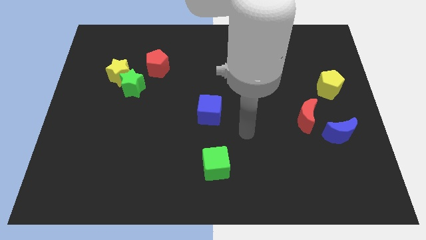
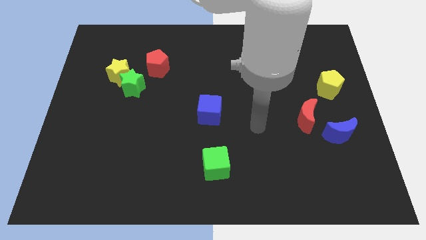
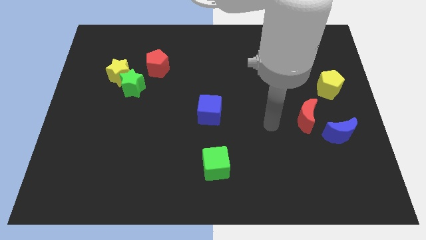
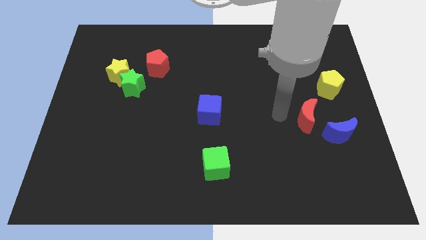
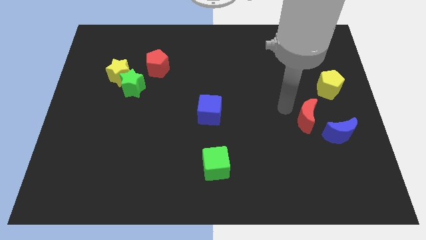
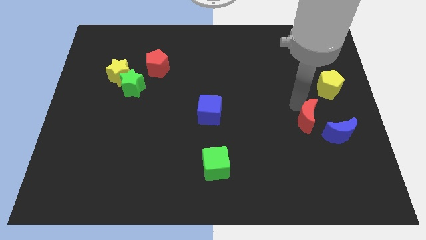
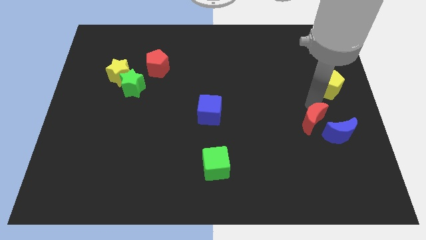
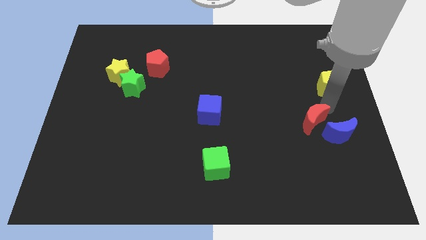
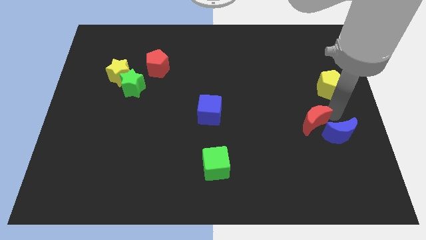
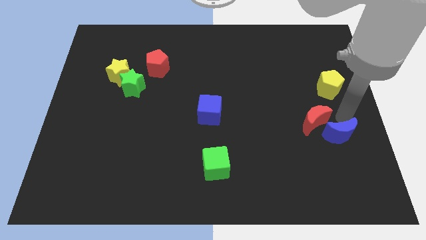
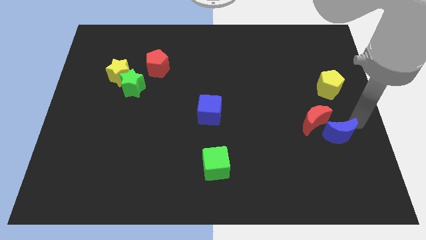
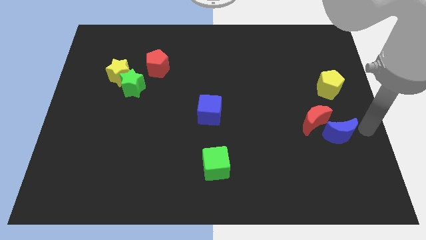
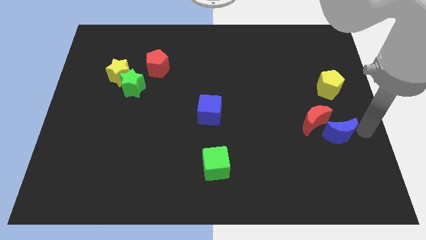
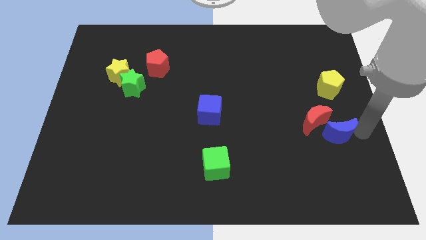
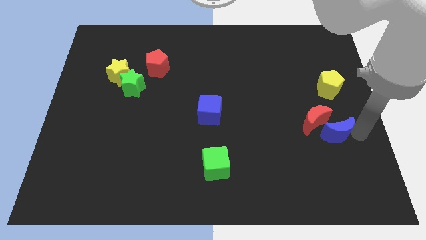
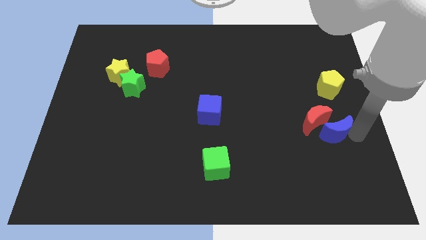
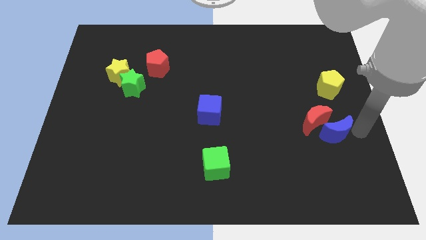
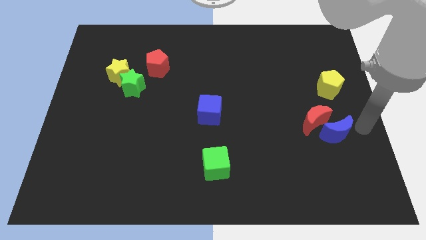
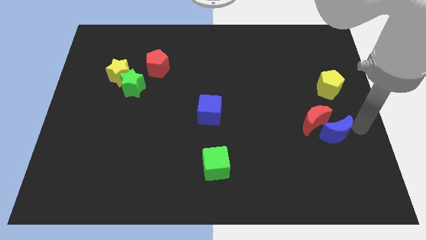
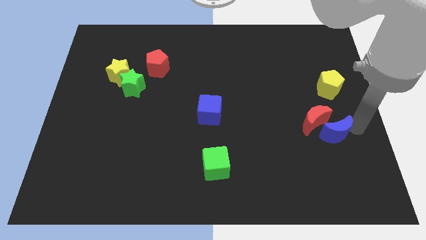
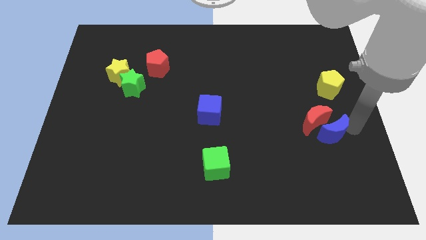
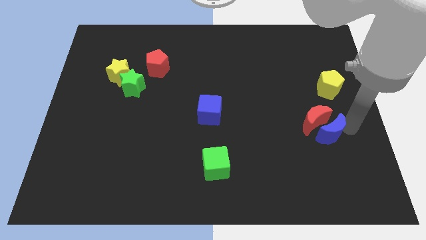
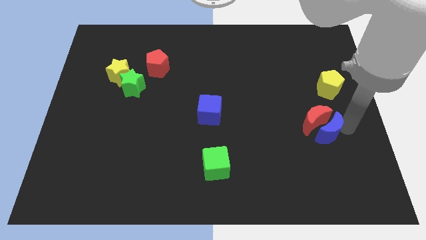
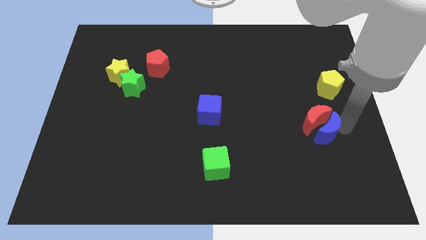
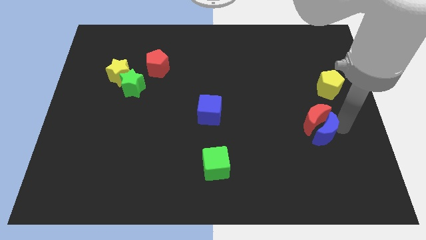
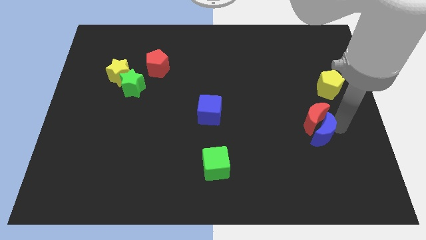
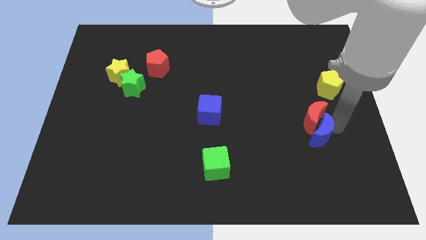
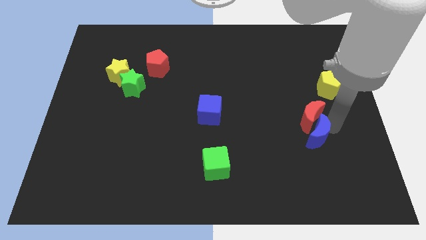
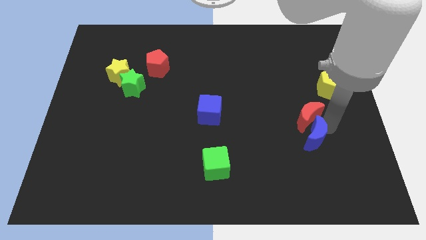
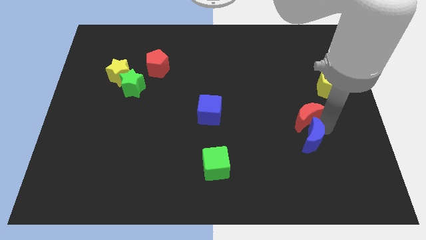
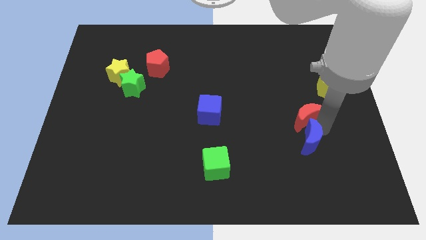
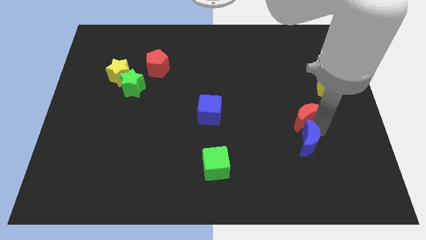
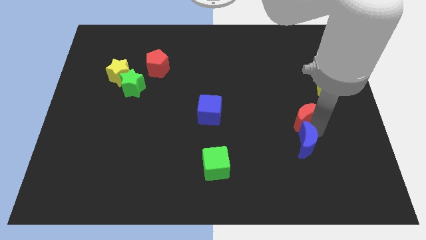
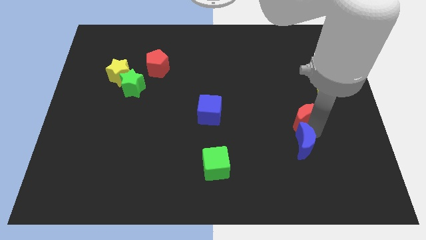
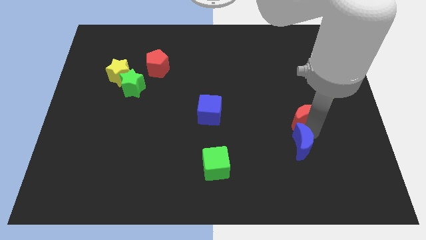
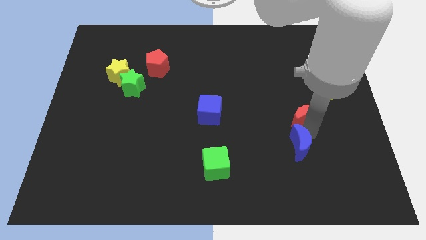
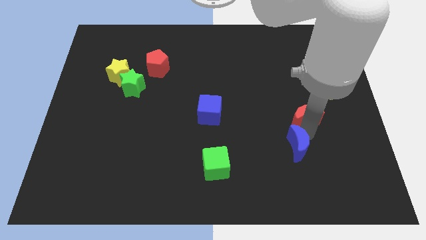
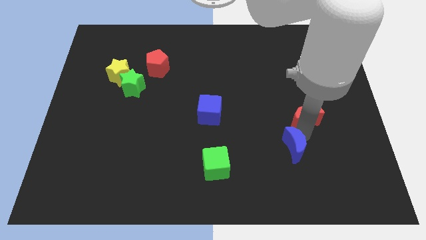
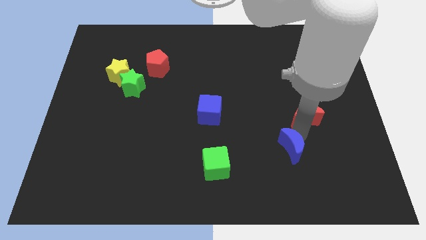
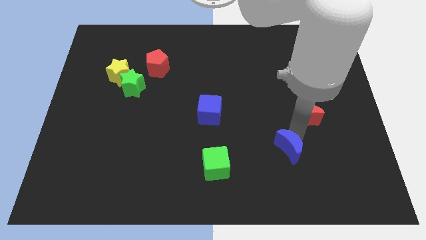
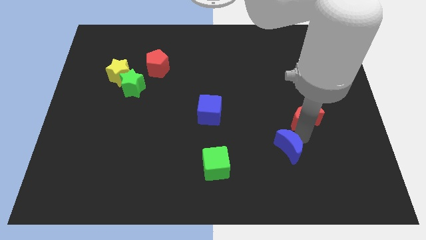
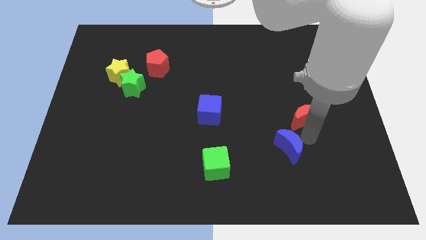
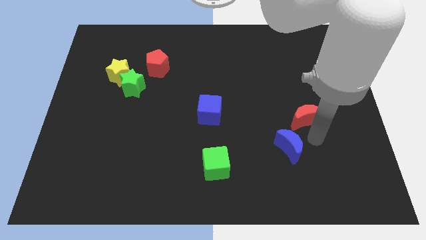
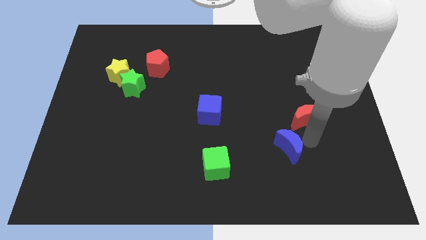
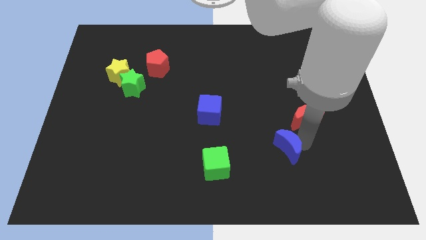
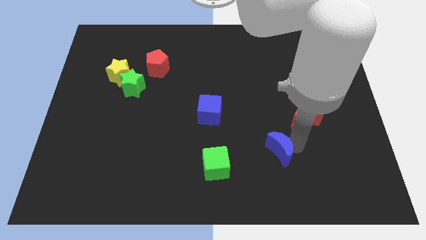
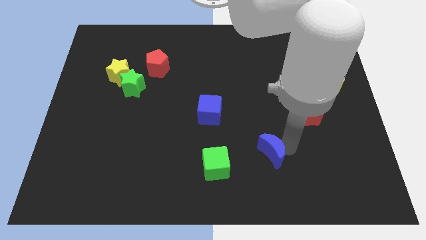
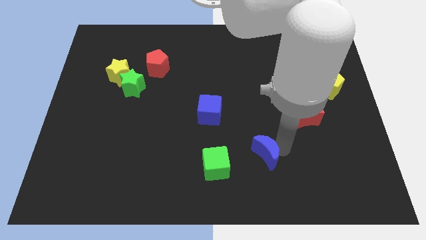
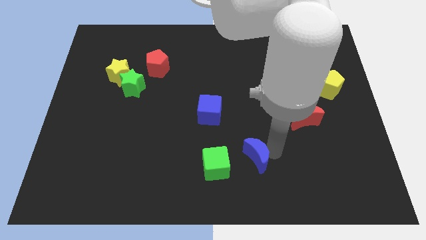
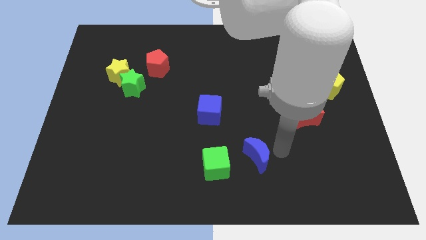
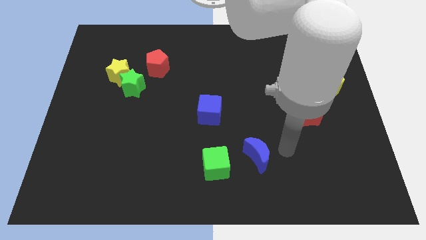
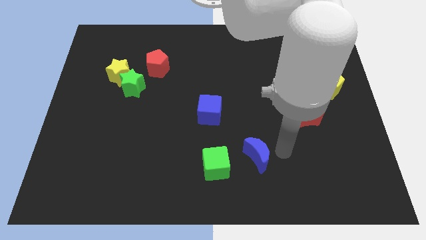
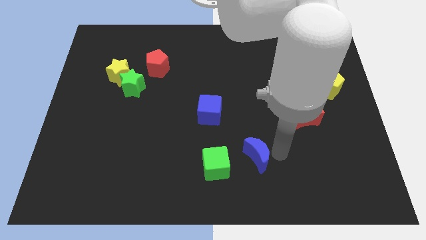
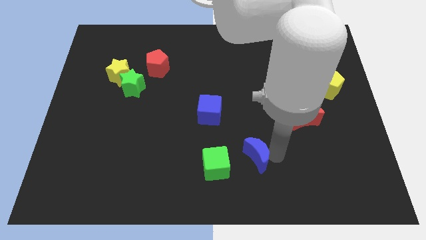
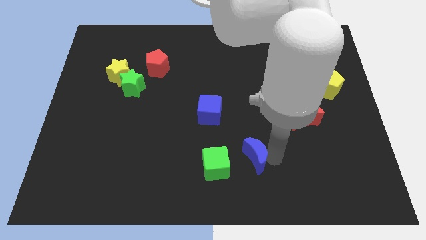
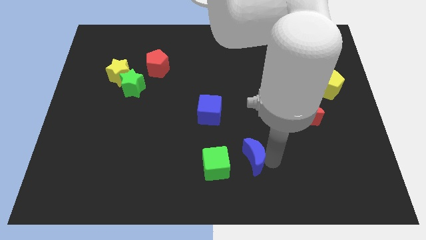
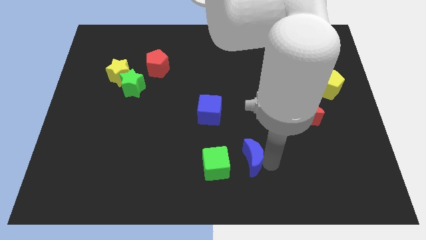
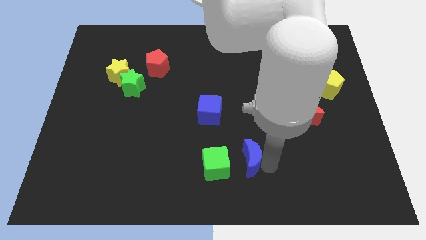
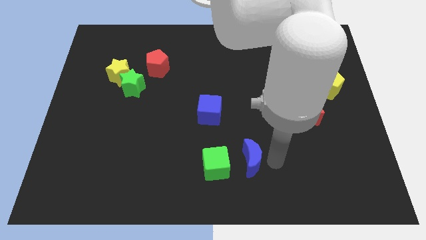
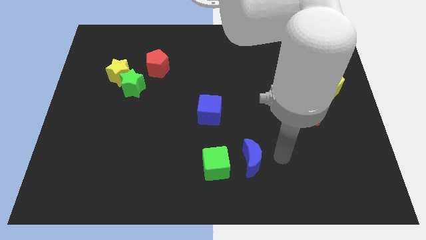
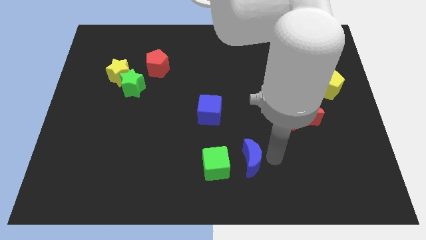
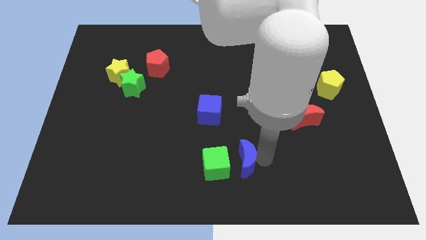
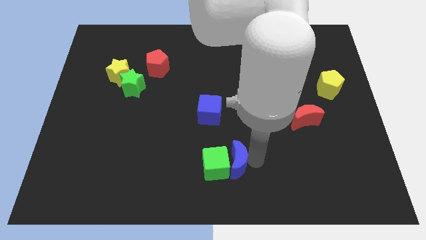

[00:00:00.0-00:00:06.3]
push the blue moon to the green cube
